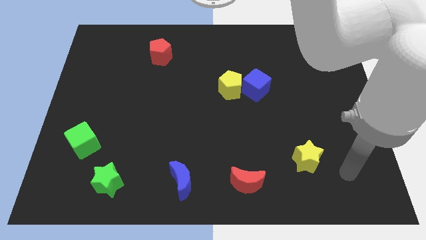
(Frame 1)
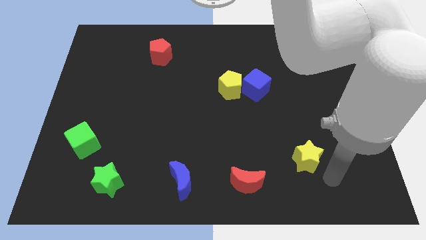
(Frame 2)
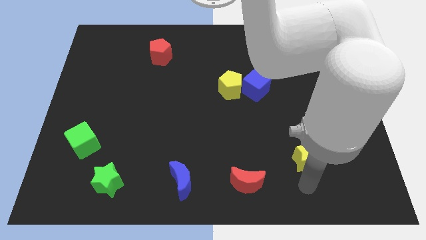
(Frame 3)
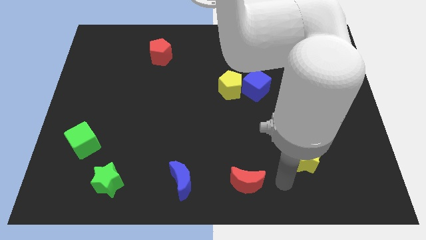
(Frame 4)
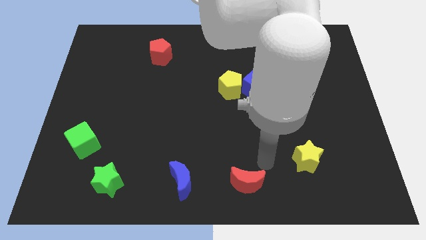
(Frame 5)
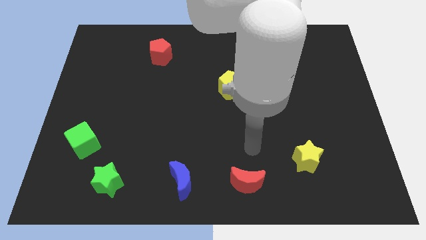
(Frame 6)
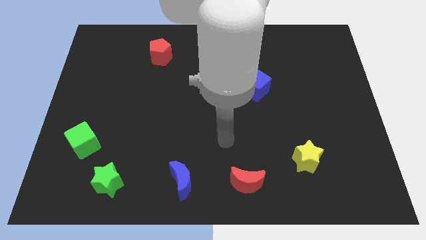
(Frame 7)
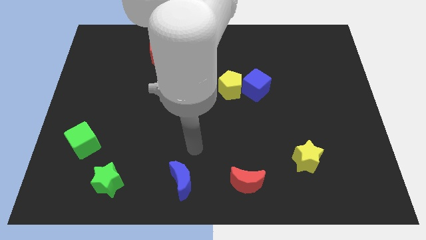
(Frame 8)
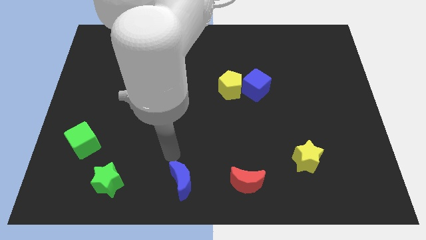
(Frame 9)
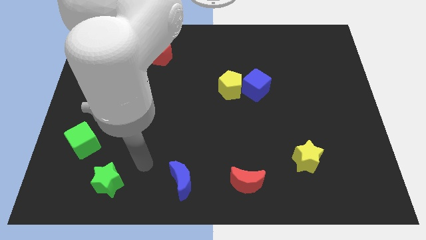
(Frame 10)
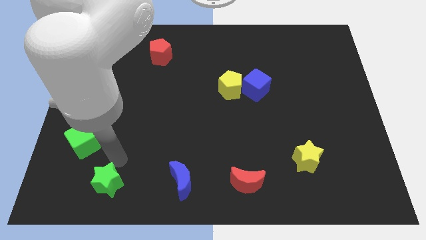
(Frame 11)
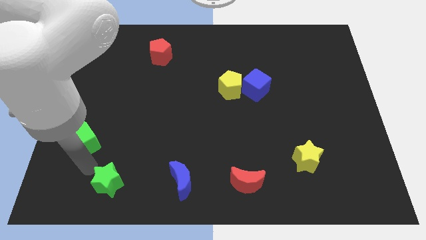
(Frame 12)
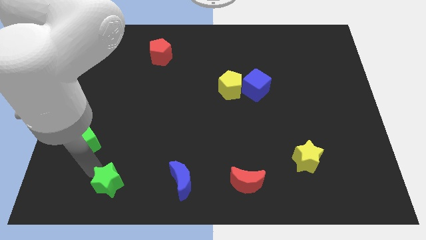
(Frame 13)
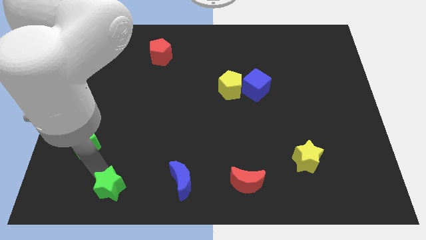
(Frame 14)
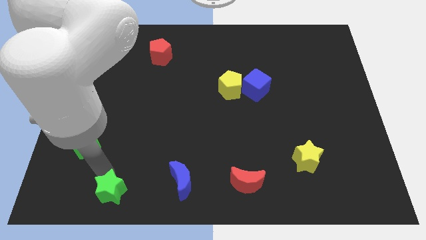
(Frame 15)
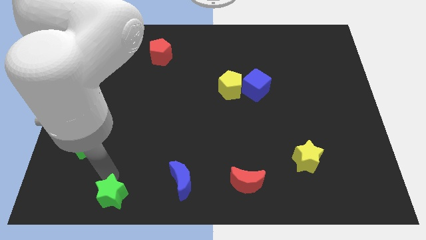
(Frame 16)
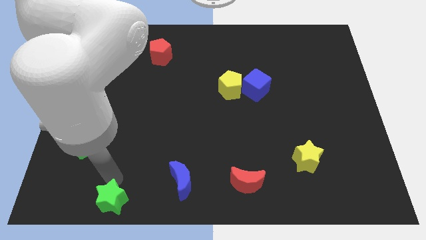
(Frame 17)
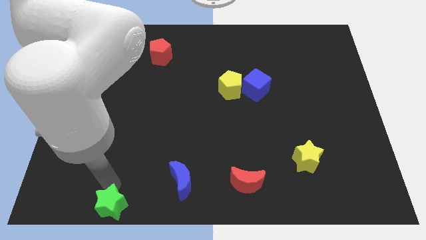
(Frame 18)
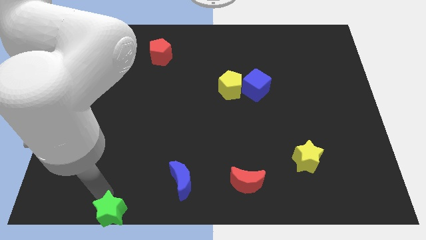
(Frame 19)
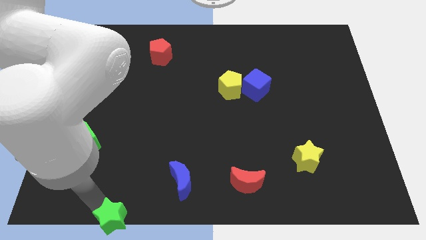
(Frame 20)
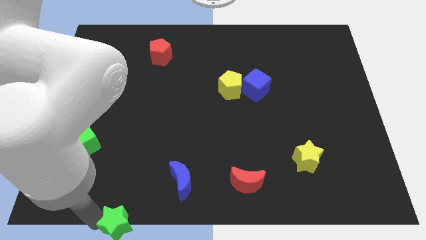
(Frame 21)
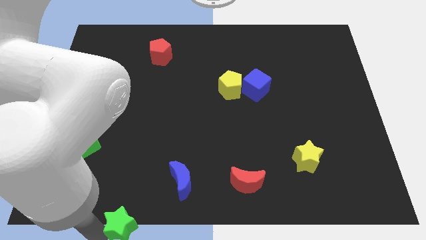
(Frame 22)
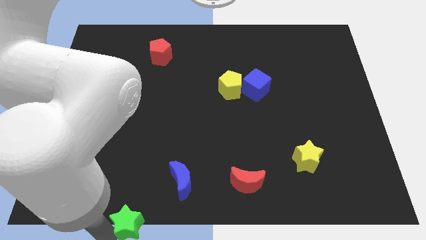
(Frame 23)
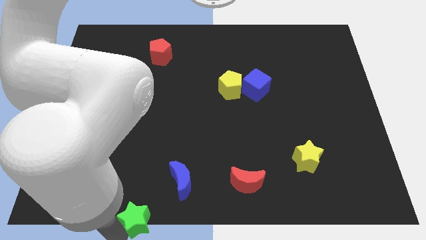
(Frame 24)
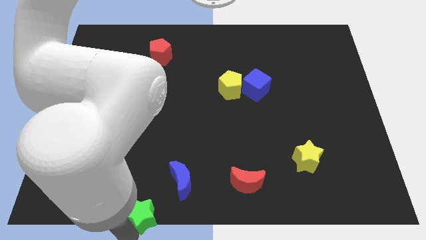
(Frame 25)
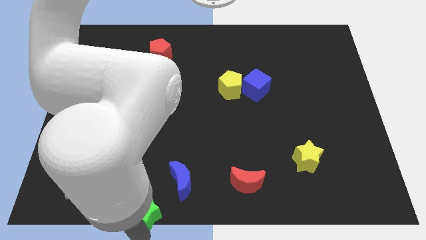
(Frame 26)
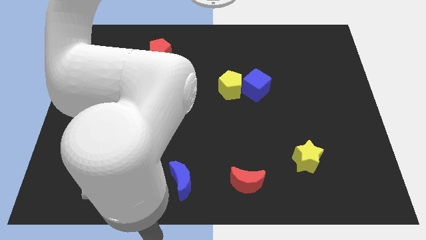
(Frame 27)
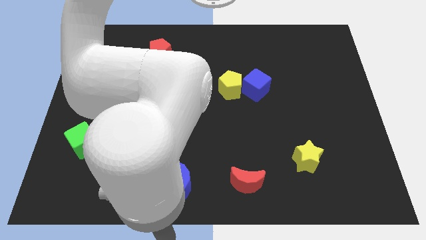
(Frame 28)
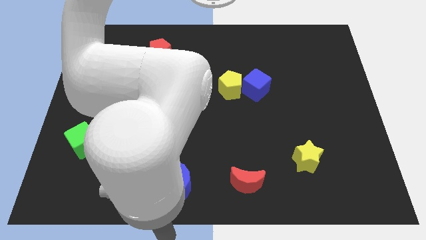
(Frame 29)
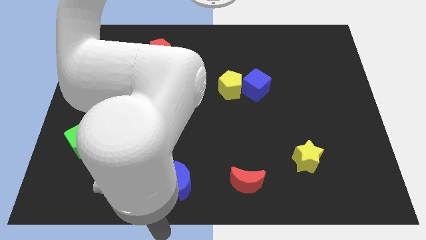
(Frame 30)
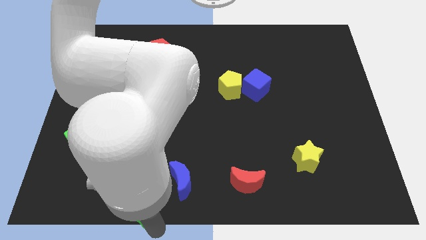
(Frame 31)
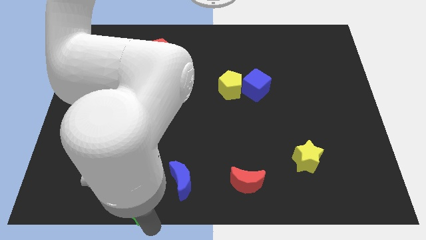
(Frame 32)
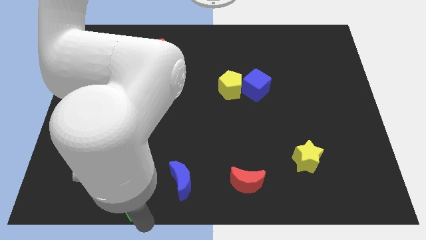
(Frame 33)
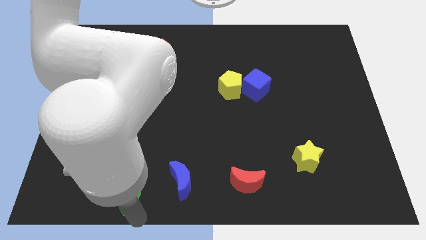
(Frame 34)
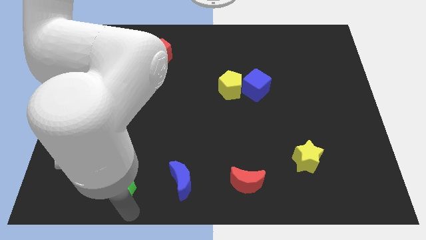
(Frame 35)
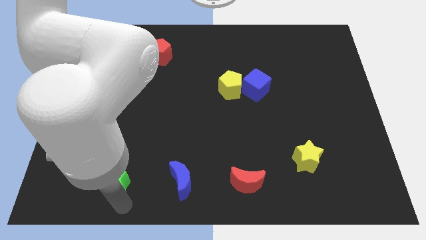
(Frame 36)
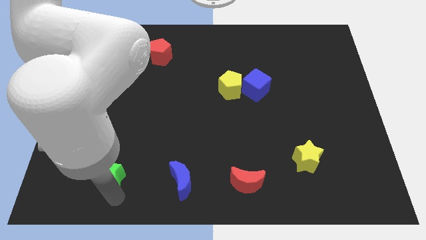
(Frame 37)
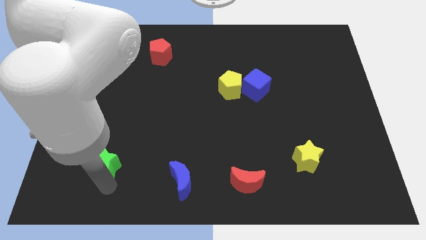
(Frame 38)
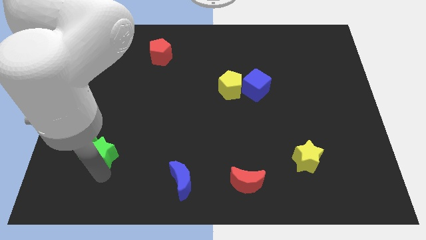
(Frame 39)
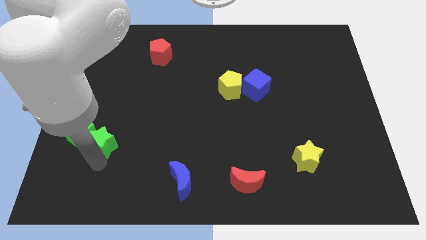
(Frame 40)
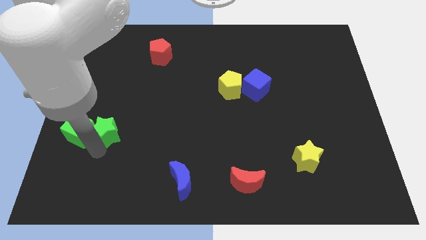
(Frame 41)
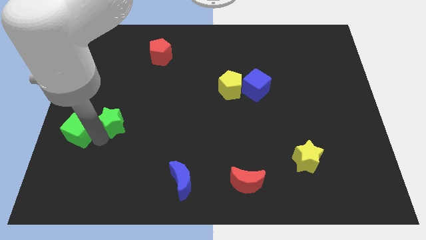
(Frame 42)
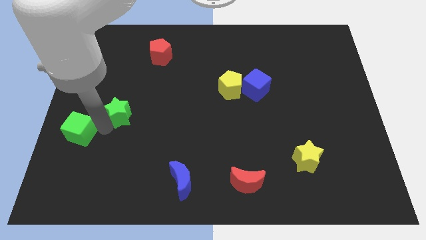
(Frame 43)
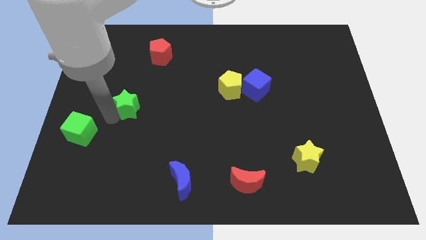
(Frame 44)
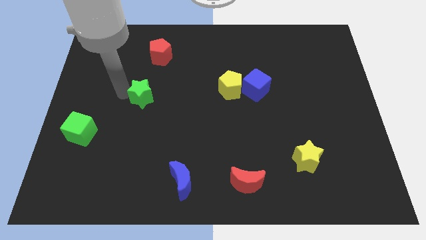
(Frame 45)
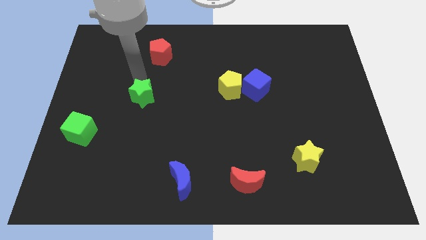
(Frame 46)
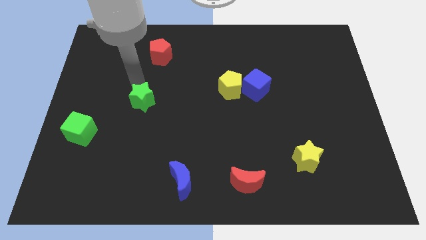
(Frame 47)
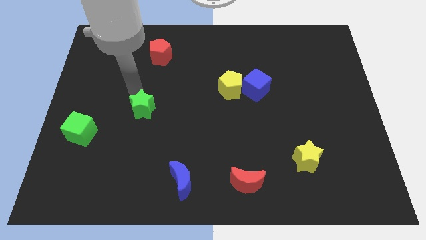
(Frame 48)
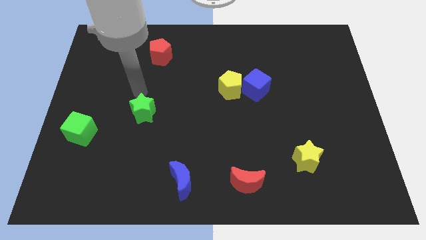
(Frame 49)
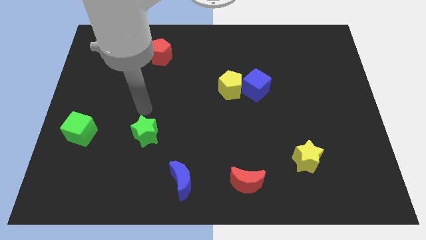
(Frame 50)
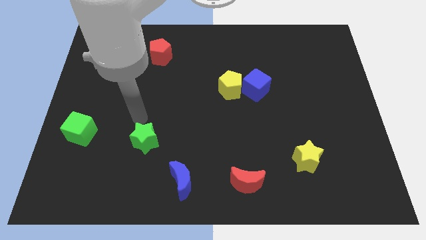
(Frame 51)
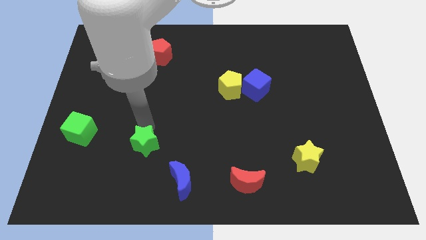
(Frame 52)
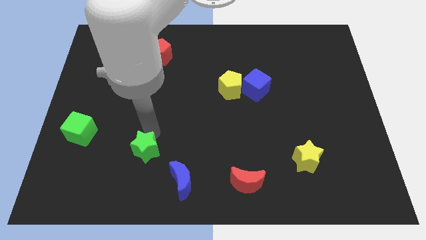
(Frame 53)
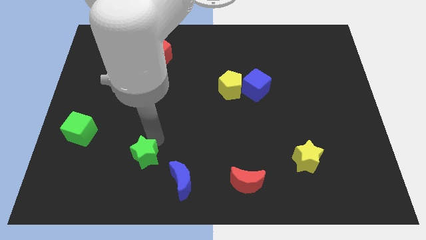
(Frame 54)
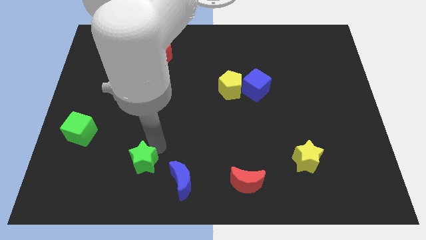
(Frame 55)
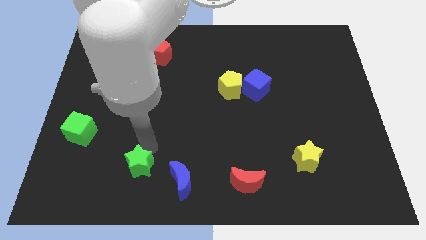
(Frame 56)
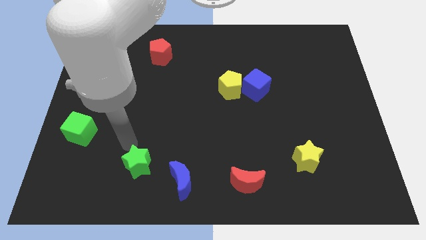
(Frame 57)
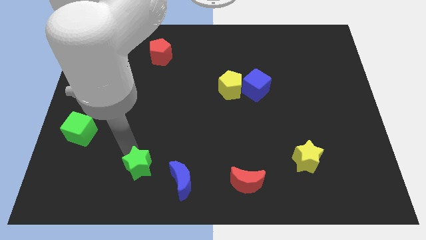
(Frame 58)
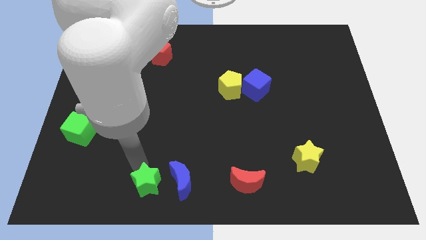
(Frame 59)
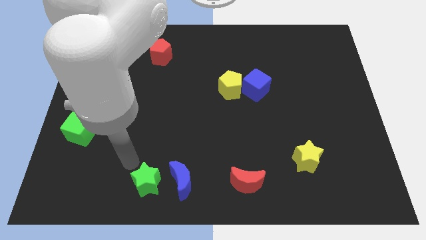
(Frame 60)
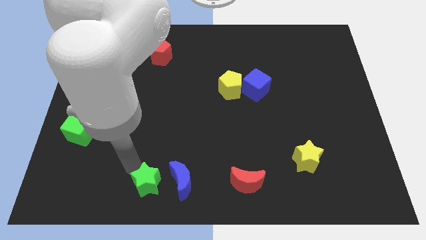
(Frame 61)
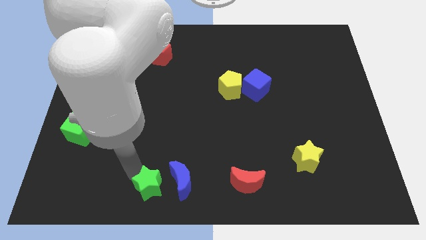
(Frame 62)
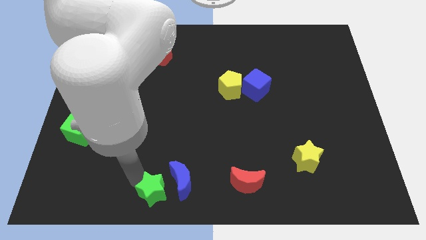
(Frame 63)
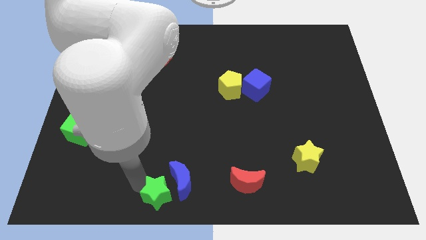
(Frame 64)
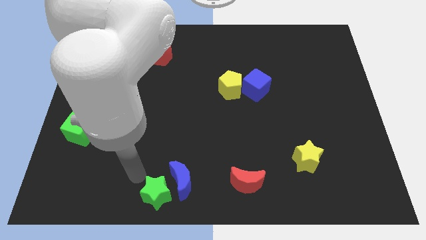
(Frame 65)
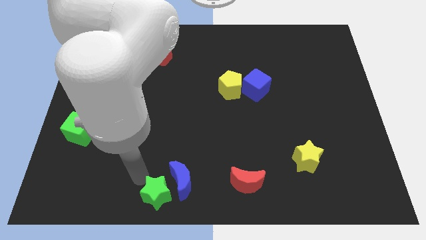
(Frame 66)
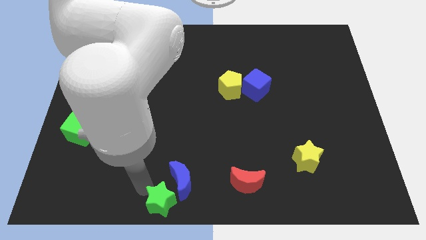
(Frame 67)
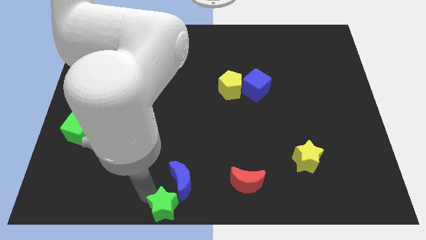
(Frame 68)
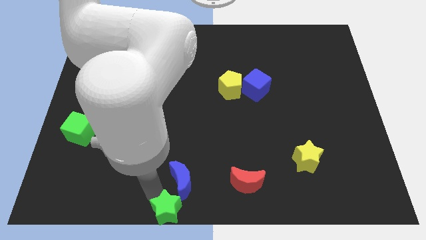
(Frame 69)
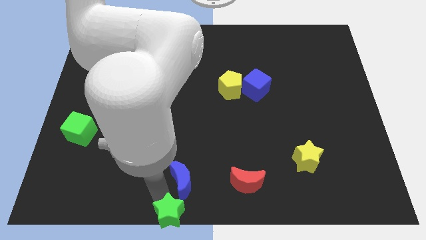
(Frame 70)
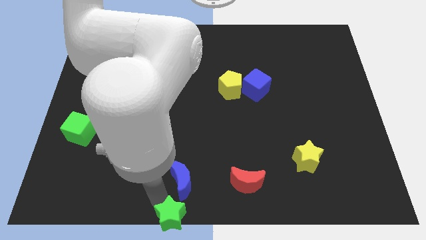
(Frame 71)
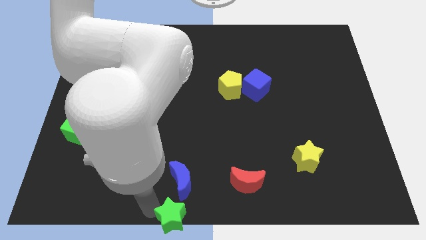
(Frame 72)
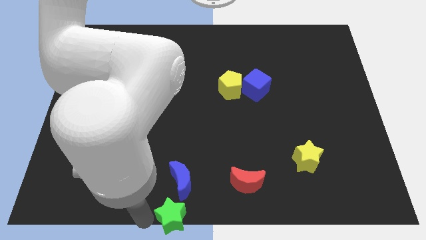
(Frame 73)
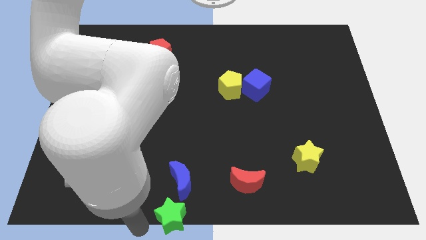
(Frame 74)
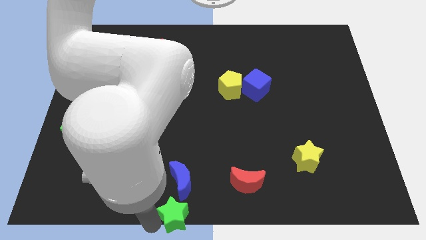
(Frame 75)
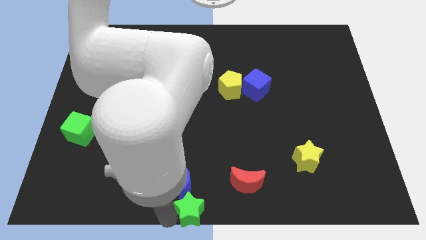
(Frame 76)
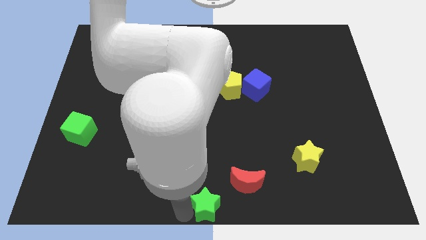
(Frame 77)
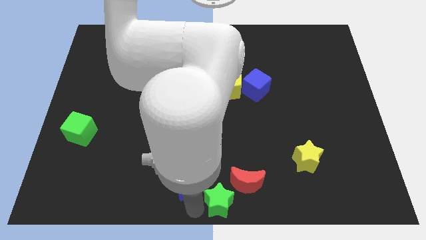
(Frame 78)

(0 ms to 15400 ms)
push the green star right

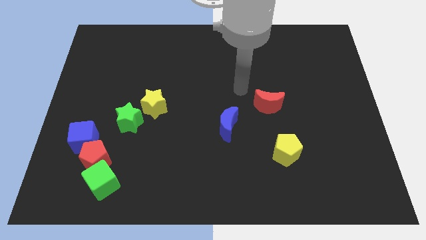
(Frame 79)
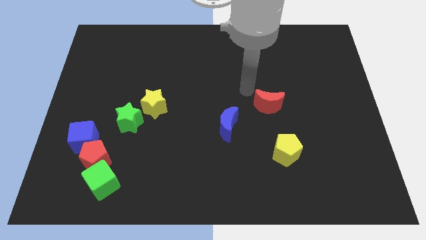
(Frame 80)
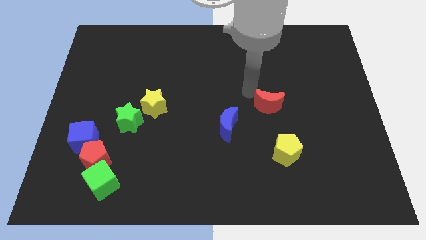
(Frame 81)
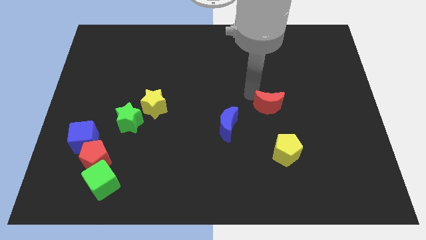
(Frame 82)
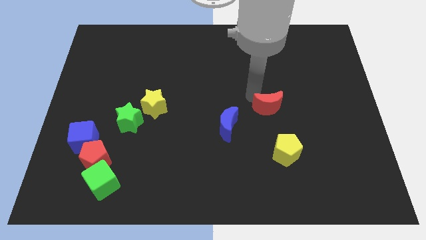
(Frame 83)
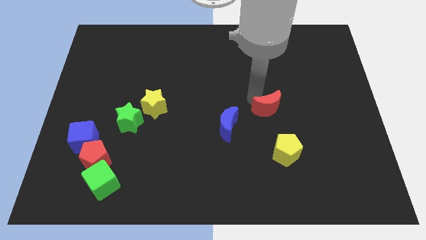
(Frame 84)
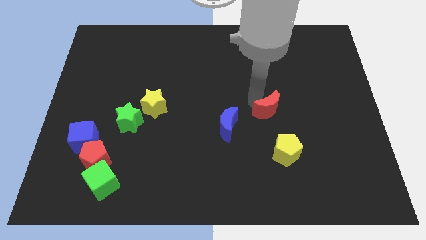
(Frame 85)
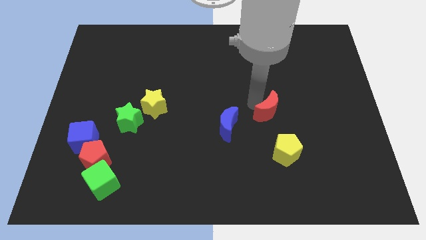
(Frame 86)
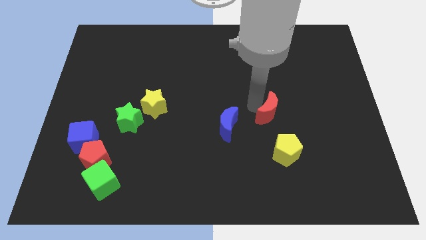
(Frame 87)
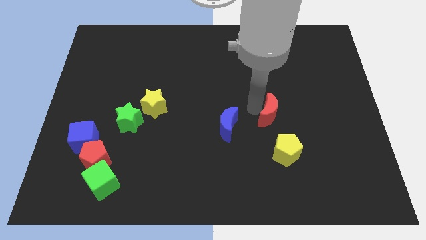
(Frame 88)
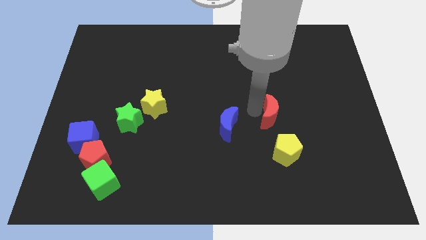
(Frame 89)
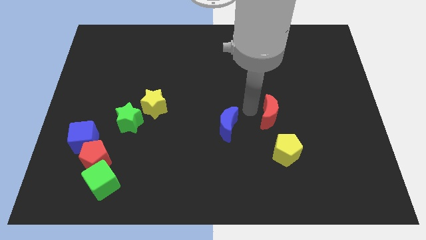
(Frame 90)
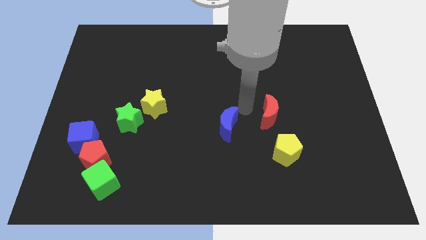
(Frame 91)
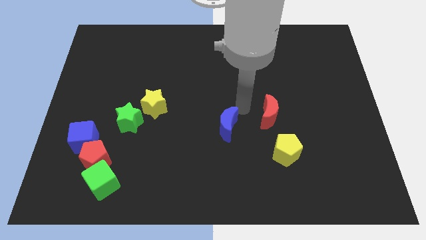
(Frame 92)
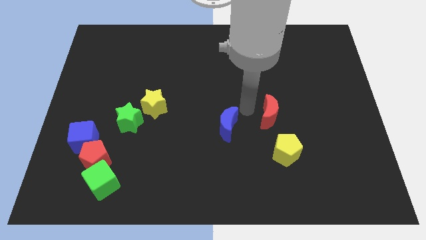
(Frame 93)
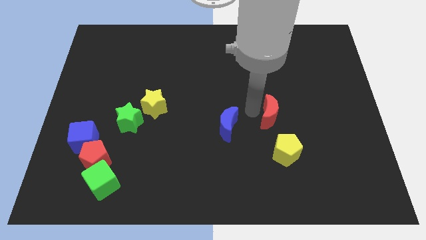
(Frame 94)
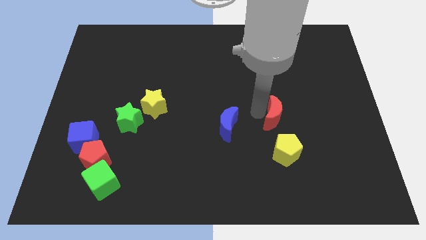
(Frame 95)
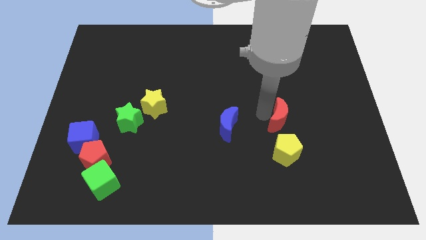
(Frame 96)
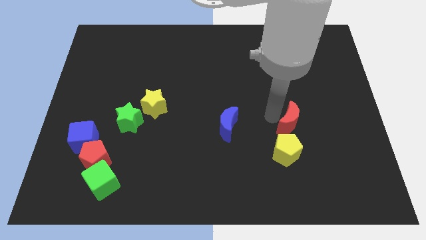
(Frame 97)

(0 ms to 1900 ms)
move the red moon somewhat downwards and to the right diagonally
